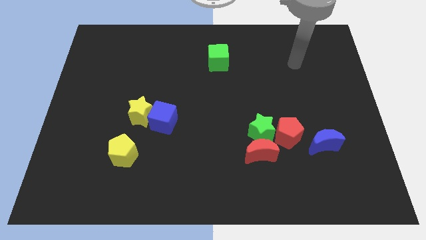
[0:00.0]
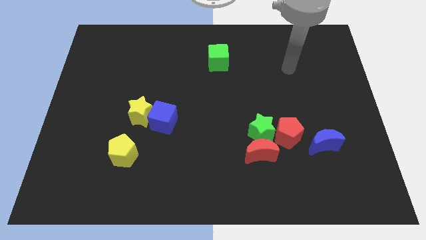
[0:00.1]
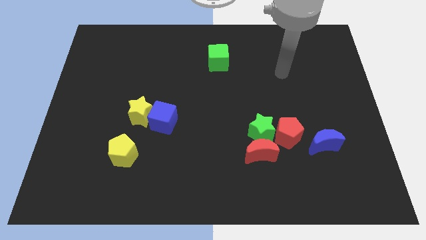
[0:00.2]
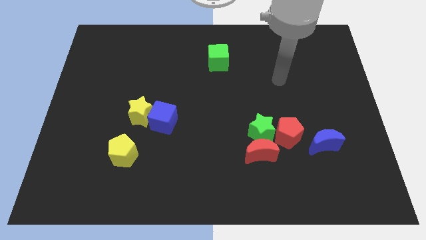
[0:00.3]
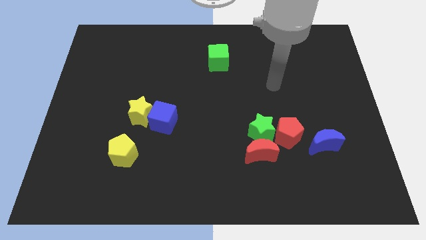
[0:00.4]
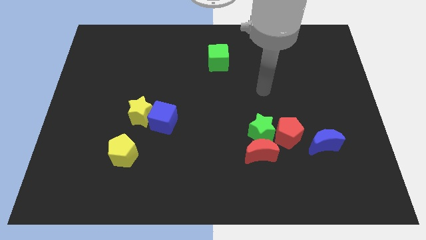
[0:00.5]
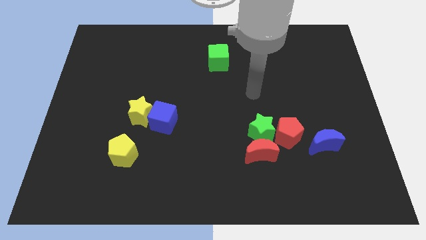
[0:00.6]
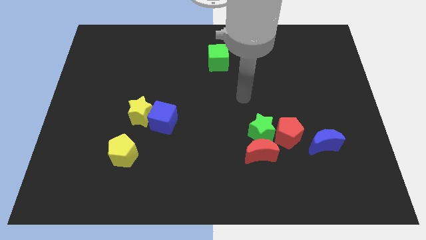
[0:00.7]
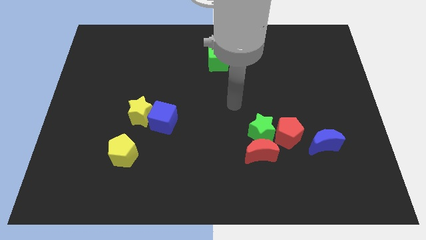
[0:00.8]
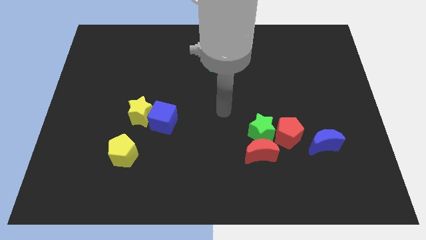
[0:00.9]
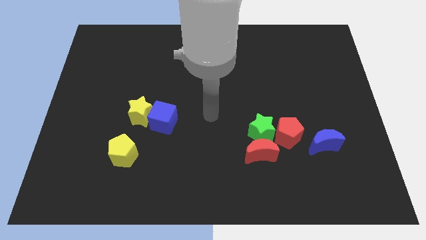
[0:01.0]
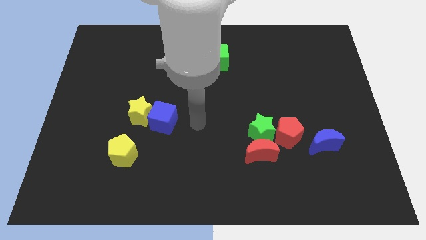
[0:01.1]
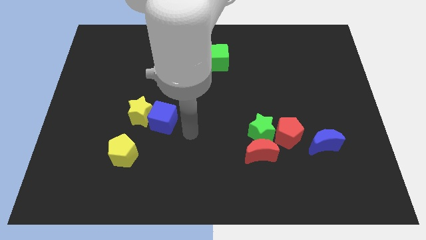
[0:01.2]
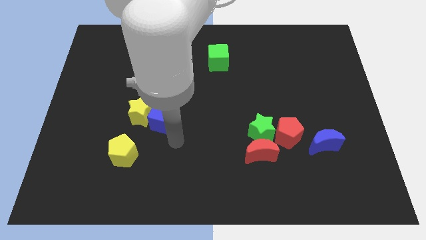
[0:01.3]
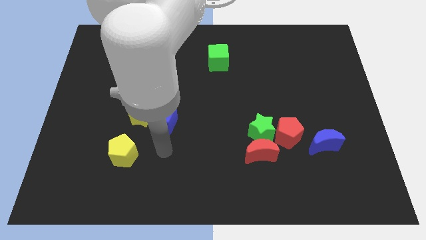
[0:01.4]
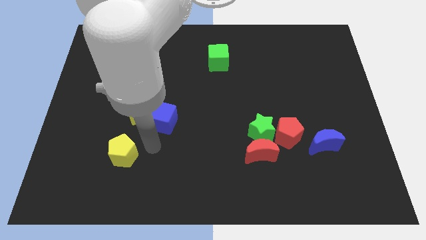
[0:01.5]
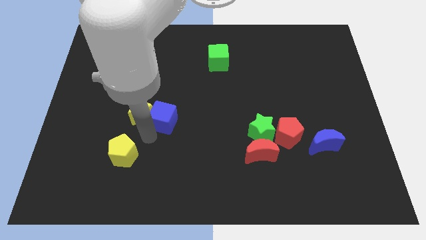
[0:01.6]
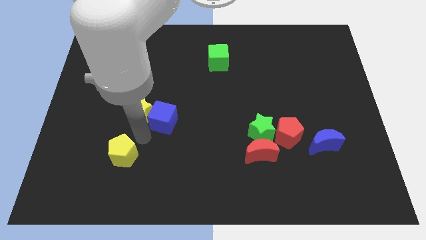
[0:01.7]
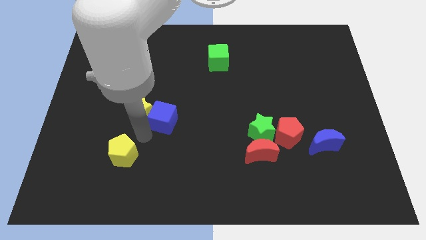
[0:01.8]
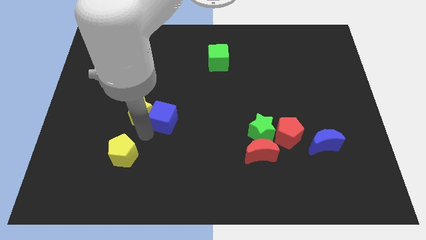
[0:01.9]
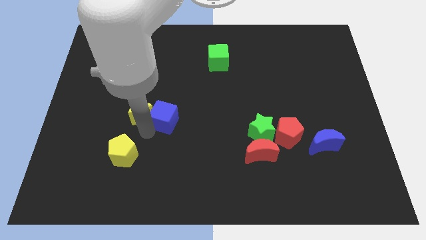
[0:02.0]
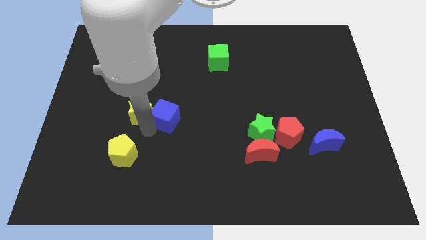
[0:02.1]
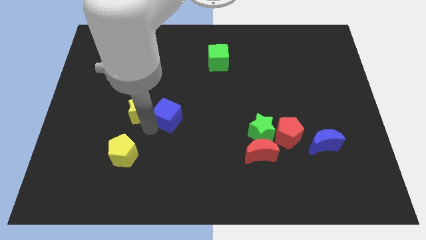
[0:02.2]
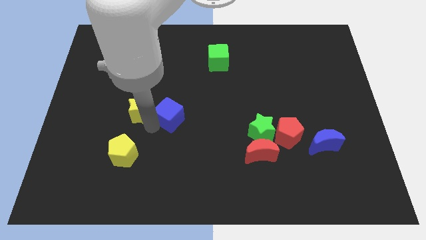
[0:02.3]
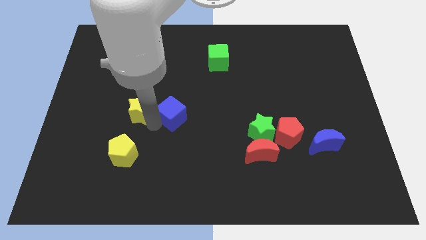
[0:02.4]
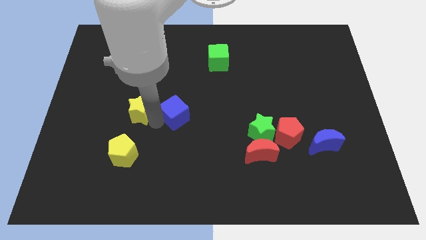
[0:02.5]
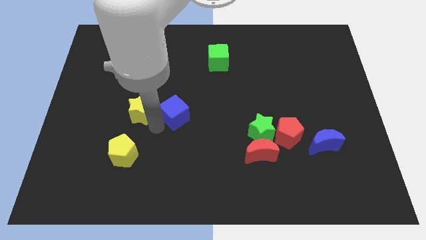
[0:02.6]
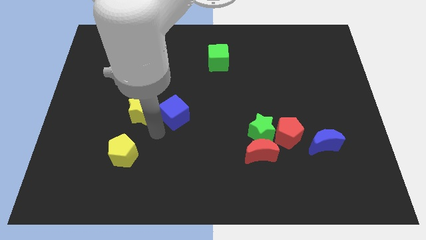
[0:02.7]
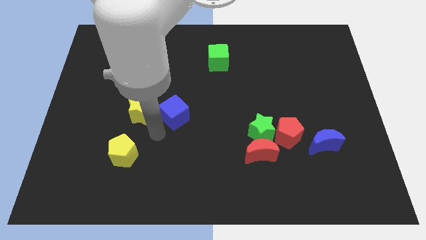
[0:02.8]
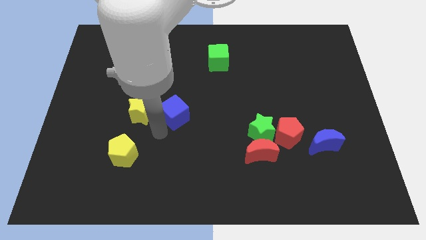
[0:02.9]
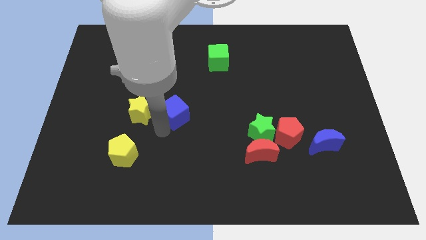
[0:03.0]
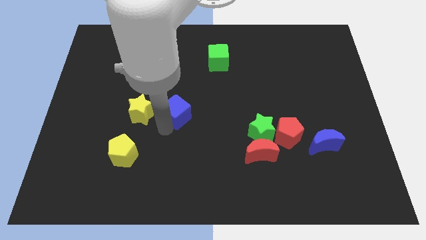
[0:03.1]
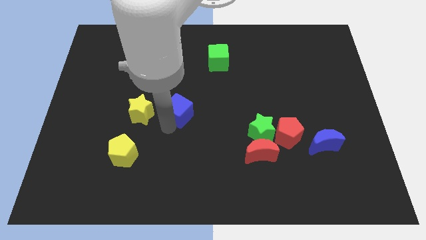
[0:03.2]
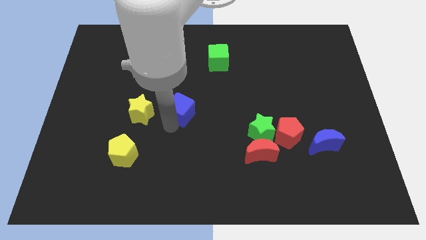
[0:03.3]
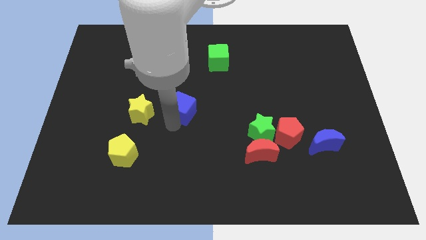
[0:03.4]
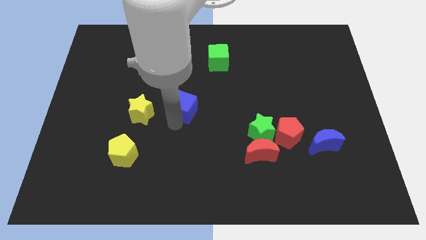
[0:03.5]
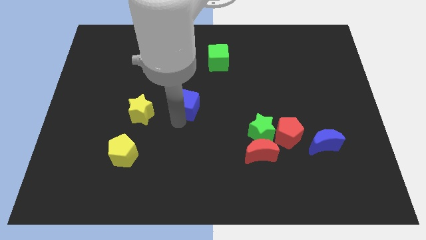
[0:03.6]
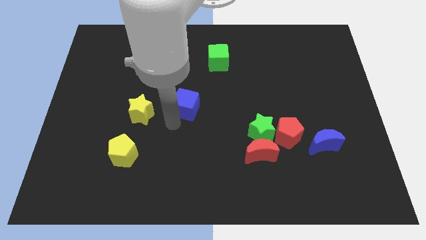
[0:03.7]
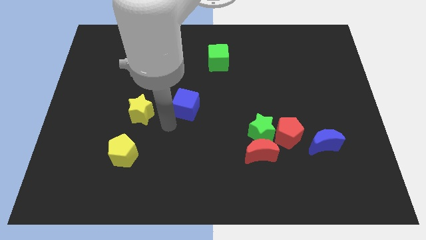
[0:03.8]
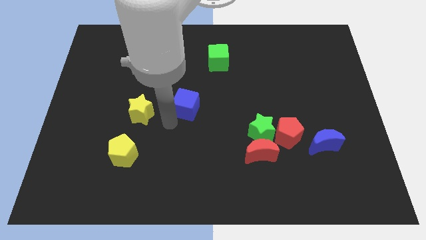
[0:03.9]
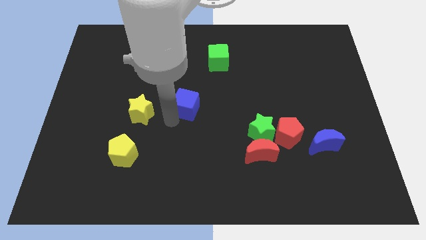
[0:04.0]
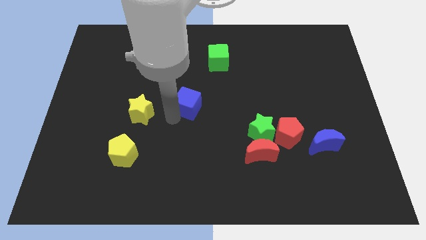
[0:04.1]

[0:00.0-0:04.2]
slide the blue cube a little up and to the right diagonally

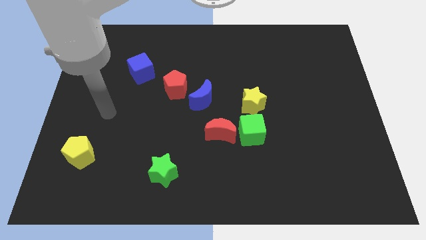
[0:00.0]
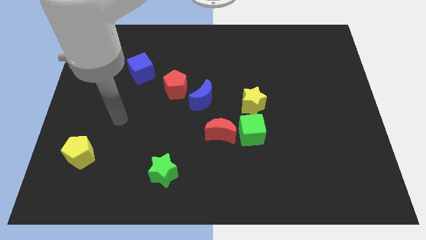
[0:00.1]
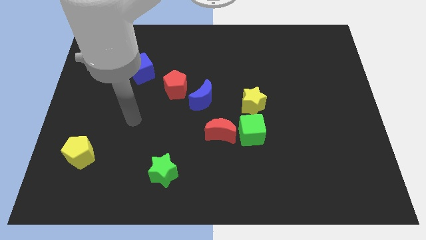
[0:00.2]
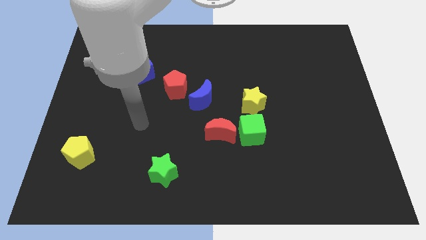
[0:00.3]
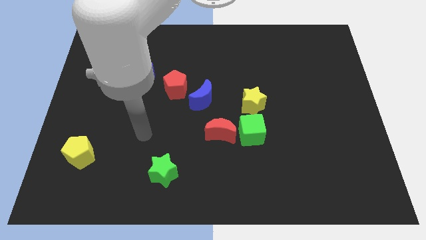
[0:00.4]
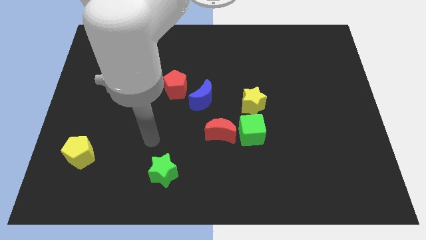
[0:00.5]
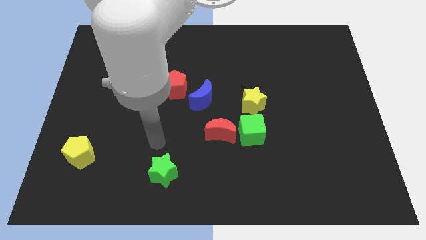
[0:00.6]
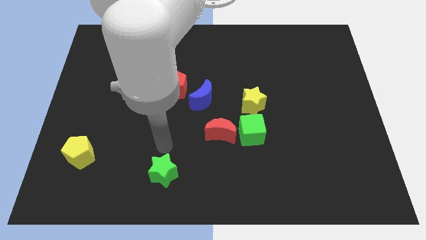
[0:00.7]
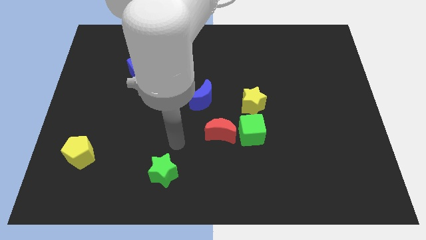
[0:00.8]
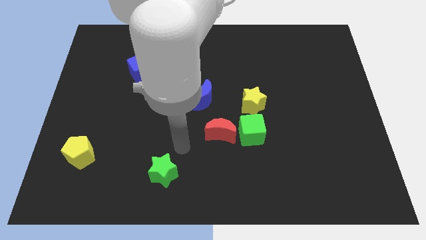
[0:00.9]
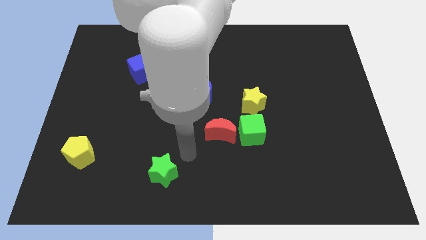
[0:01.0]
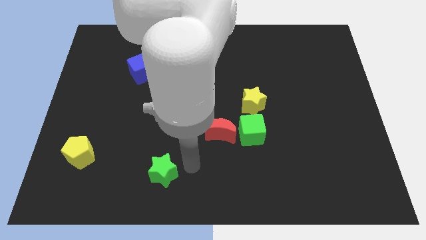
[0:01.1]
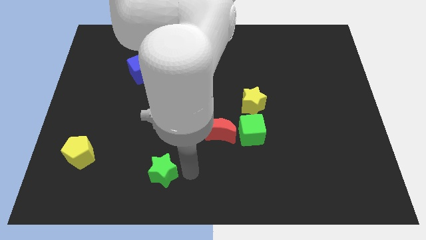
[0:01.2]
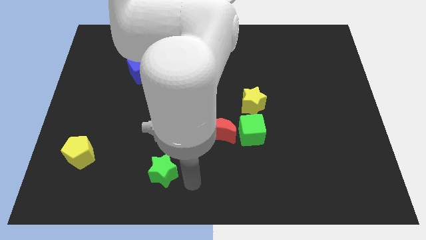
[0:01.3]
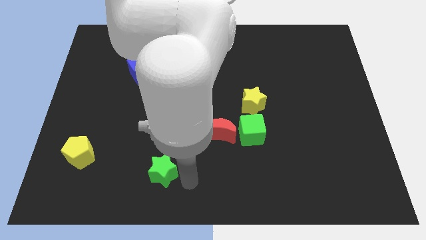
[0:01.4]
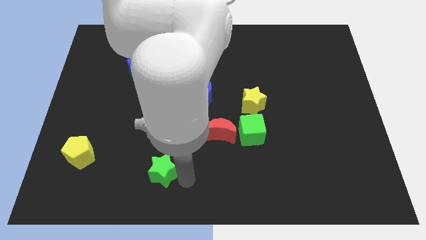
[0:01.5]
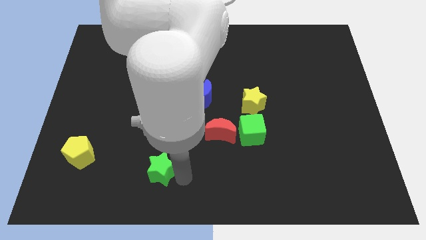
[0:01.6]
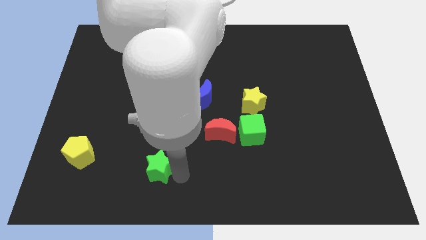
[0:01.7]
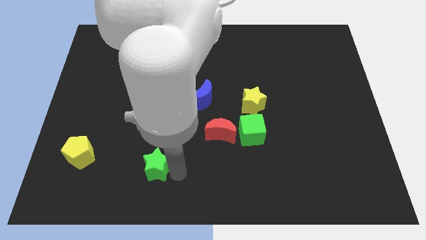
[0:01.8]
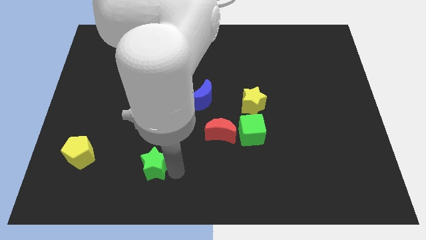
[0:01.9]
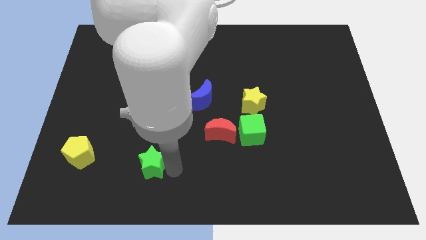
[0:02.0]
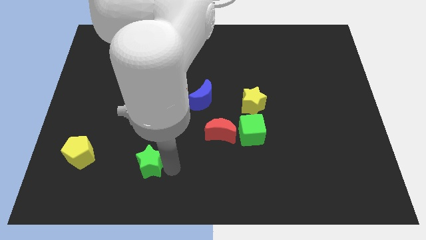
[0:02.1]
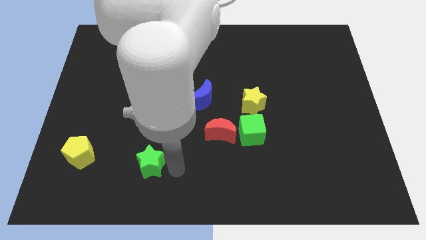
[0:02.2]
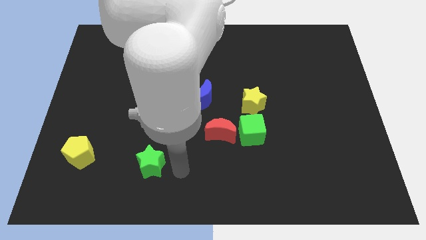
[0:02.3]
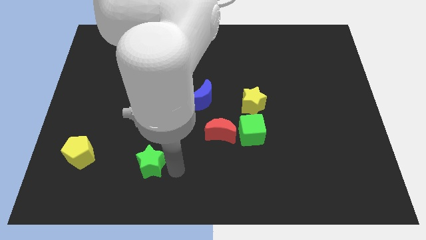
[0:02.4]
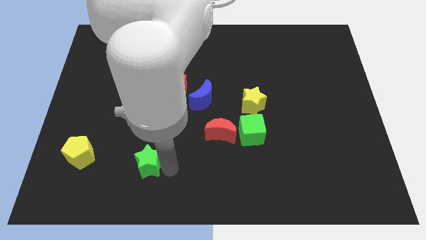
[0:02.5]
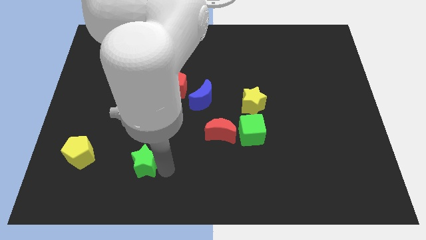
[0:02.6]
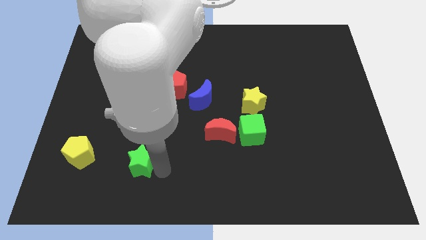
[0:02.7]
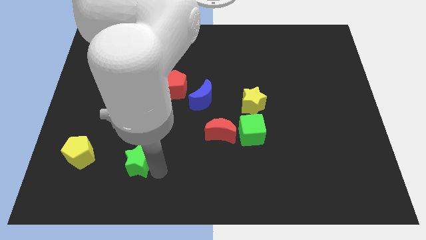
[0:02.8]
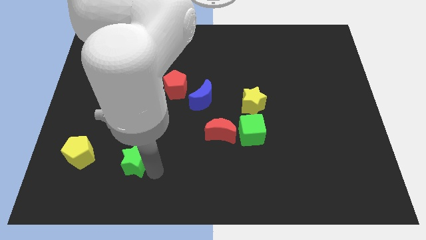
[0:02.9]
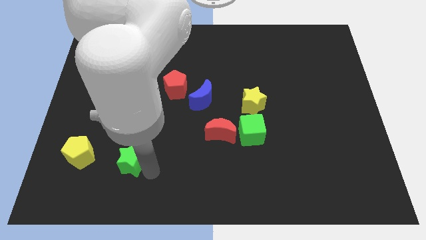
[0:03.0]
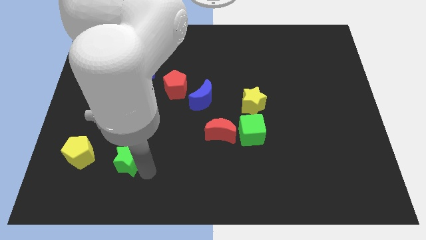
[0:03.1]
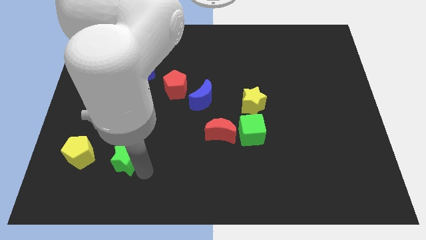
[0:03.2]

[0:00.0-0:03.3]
push the green star slightly upwards and then to the left

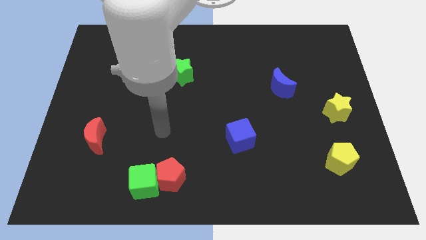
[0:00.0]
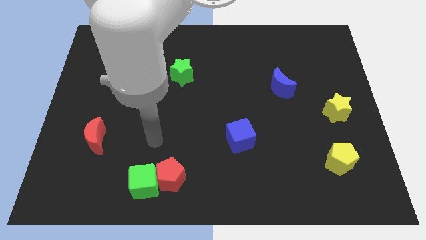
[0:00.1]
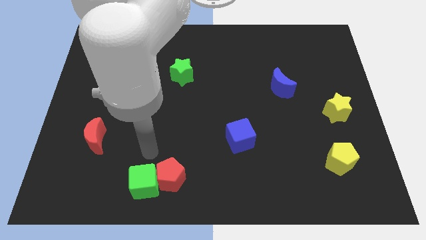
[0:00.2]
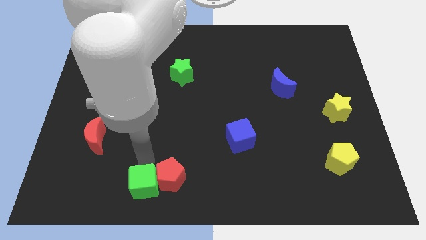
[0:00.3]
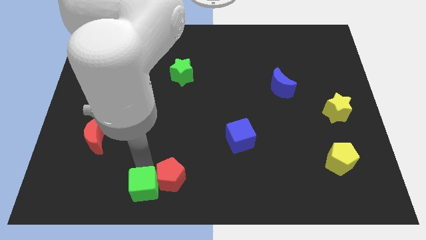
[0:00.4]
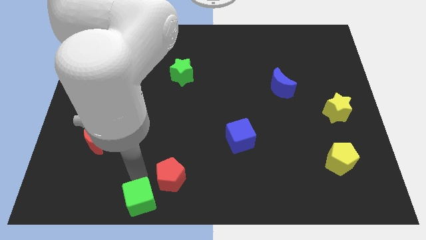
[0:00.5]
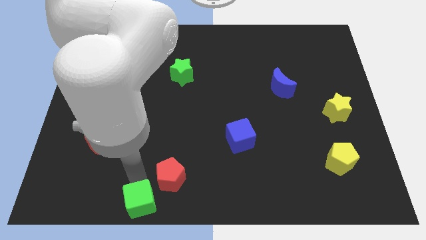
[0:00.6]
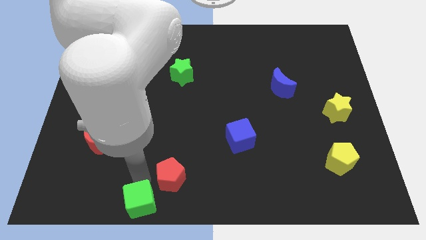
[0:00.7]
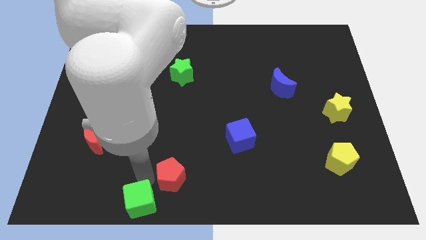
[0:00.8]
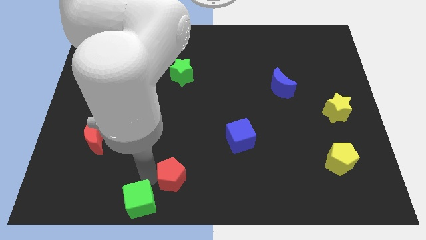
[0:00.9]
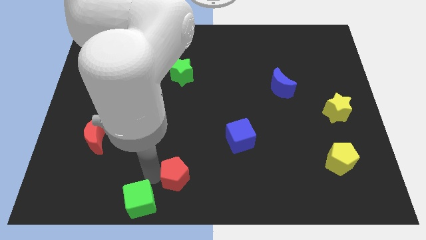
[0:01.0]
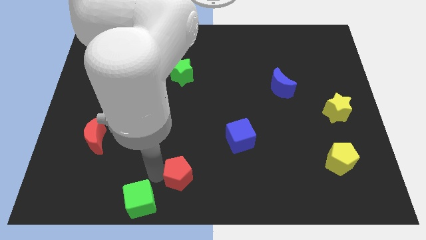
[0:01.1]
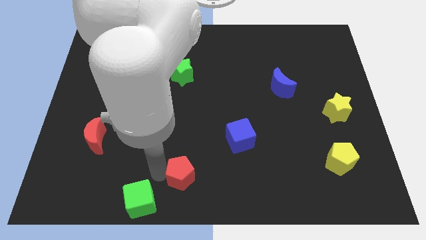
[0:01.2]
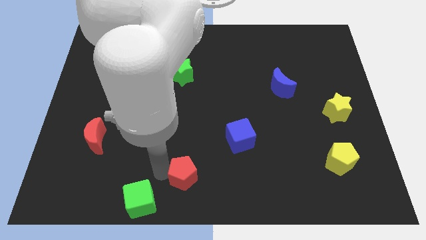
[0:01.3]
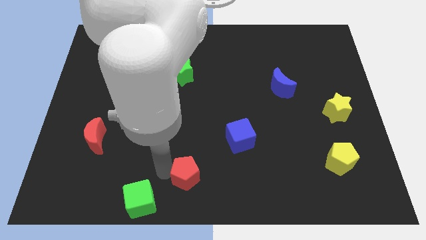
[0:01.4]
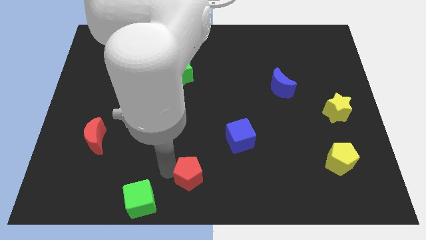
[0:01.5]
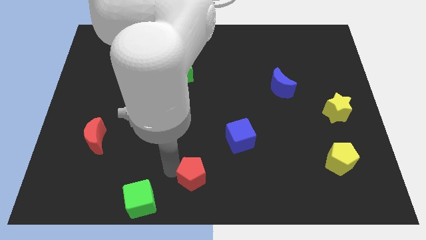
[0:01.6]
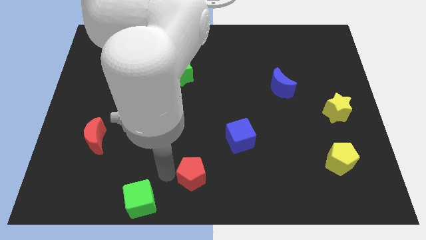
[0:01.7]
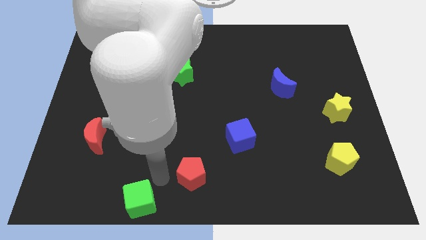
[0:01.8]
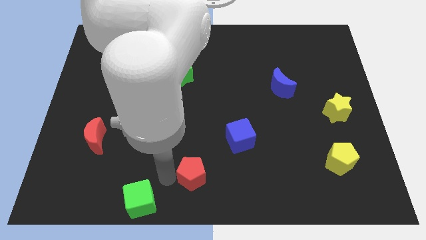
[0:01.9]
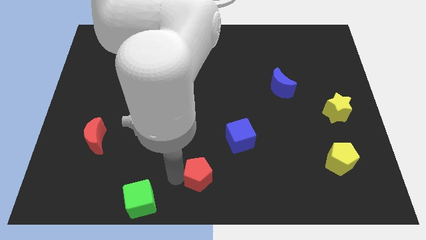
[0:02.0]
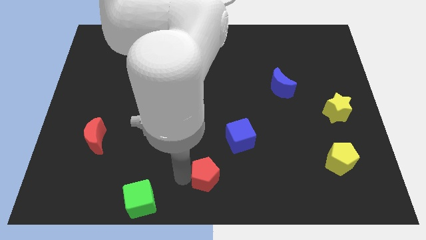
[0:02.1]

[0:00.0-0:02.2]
move the red pentagon to the right a little
